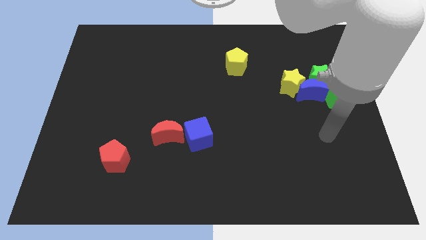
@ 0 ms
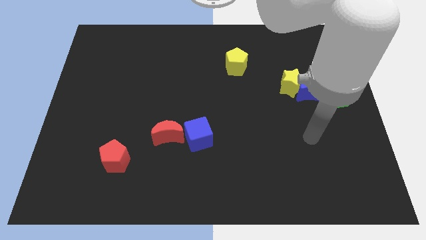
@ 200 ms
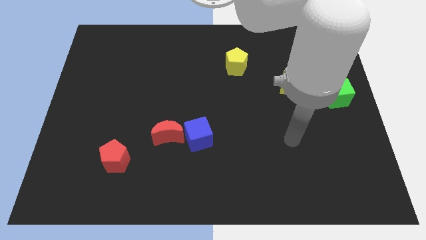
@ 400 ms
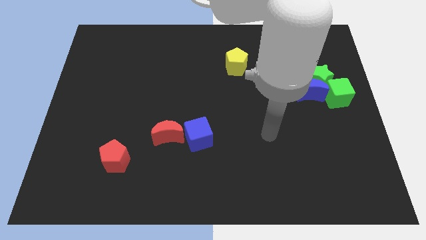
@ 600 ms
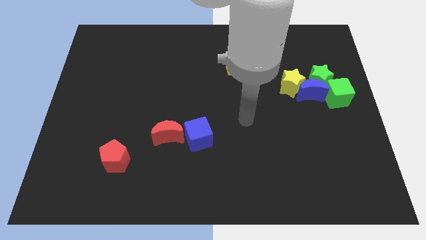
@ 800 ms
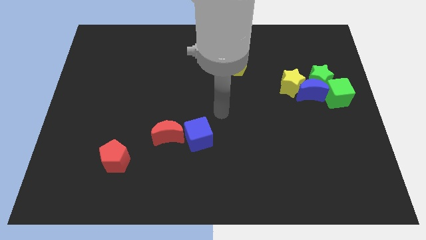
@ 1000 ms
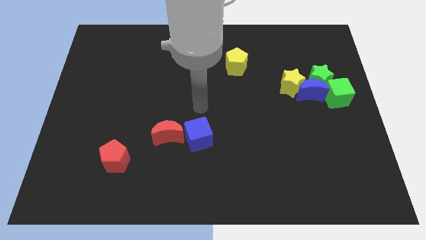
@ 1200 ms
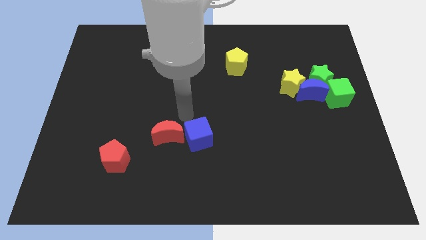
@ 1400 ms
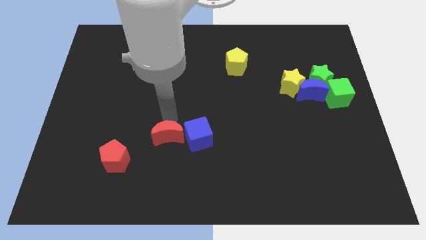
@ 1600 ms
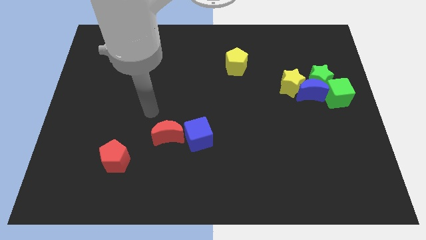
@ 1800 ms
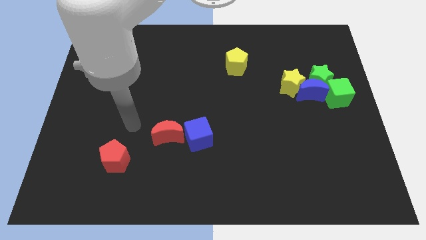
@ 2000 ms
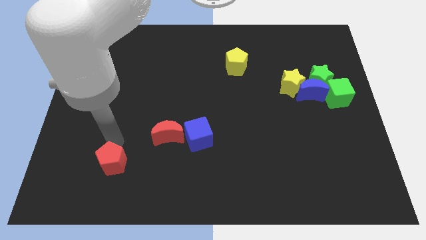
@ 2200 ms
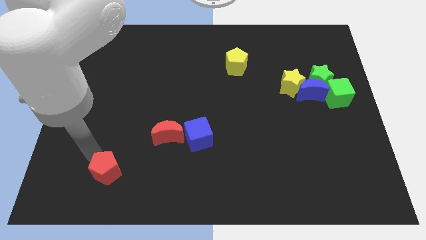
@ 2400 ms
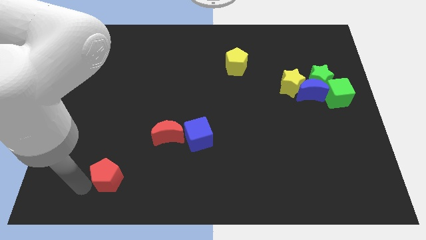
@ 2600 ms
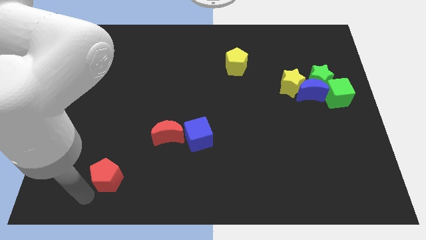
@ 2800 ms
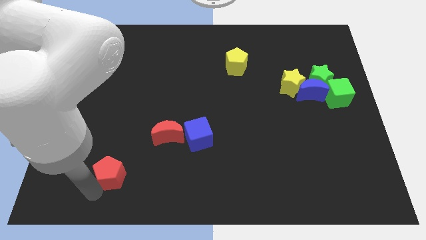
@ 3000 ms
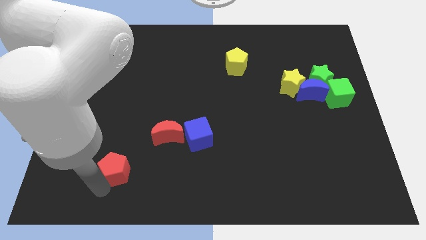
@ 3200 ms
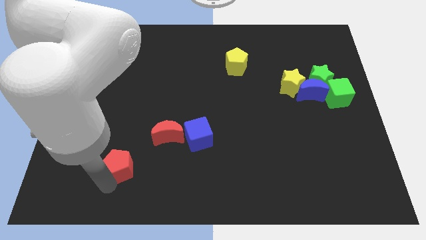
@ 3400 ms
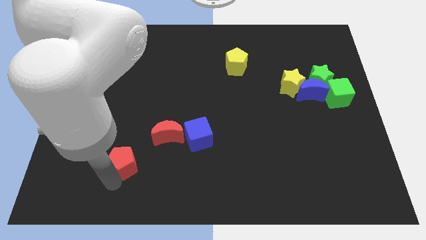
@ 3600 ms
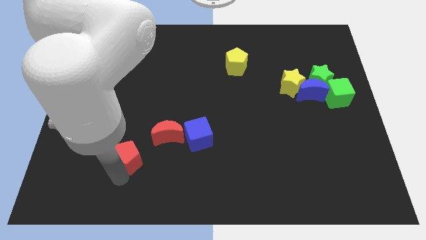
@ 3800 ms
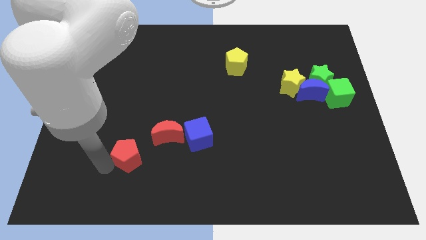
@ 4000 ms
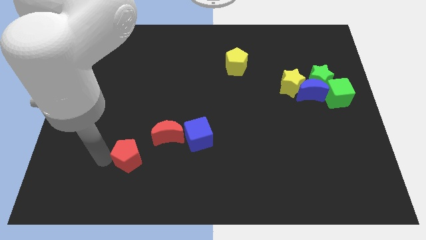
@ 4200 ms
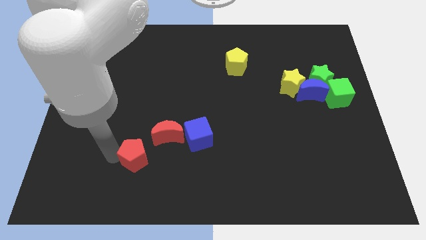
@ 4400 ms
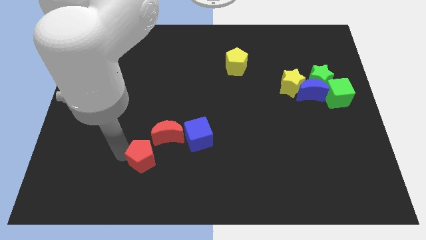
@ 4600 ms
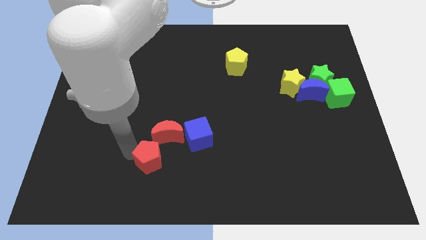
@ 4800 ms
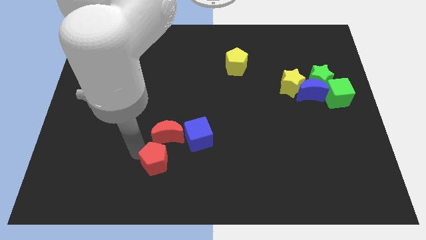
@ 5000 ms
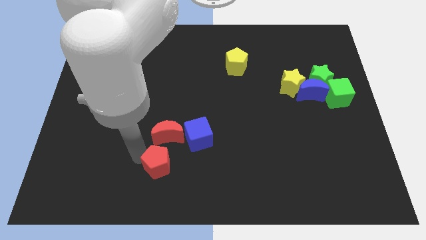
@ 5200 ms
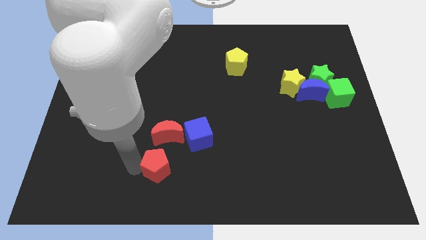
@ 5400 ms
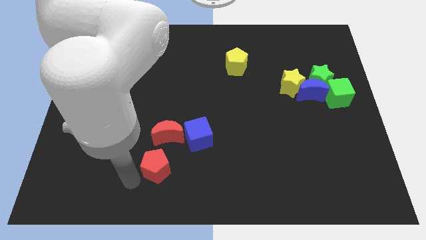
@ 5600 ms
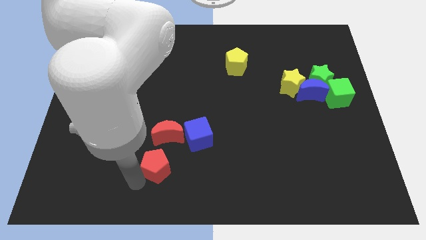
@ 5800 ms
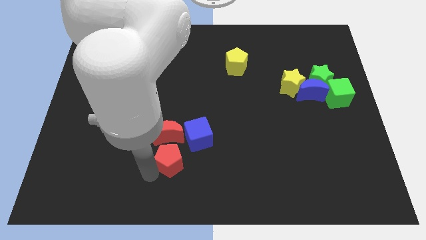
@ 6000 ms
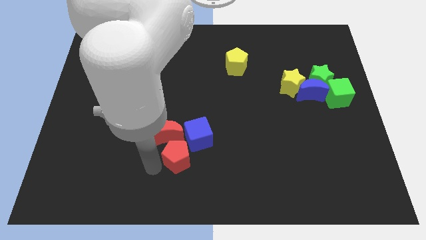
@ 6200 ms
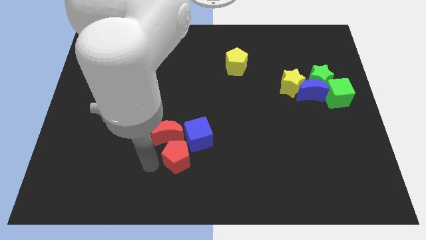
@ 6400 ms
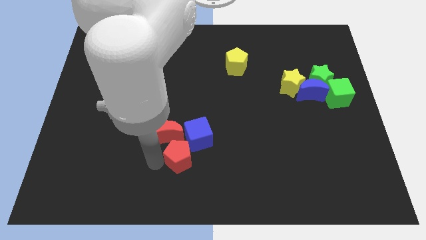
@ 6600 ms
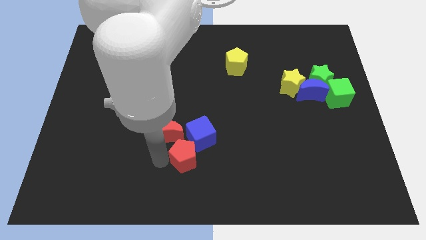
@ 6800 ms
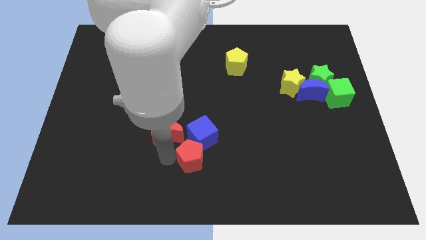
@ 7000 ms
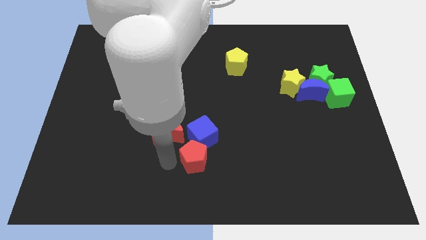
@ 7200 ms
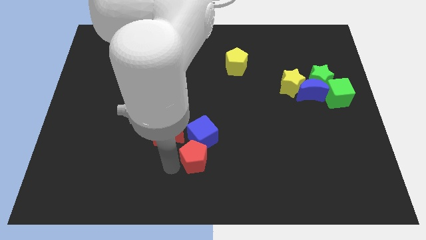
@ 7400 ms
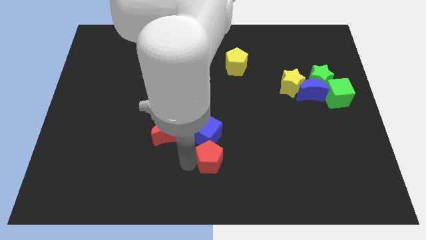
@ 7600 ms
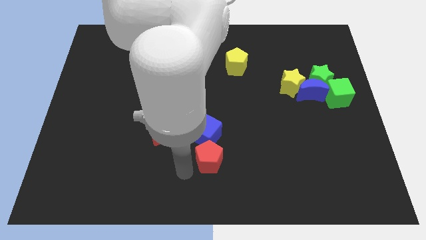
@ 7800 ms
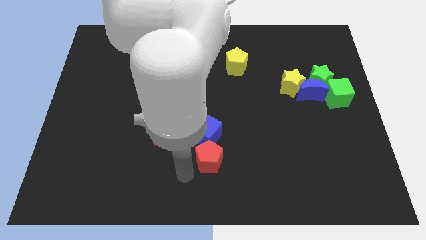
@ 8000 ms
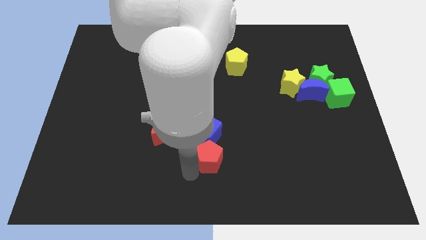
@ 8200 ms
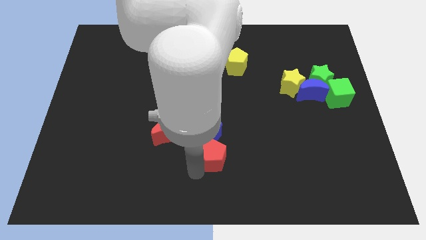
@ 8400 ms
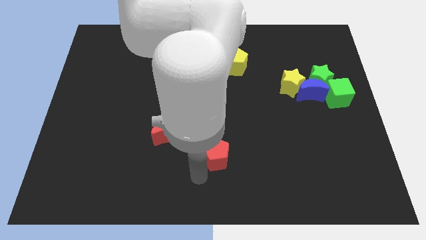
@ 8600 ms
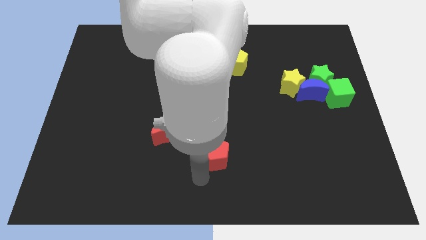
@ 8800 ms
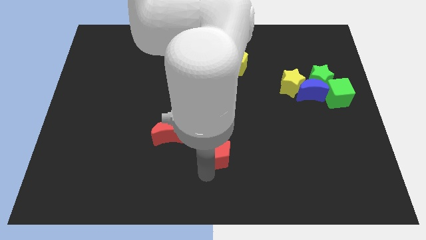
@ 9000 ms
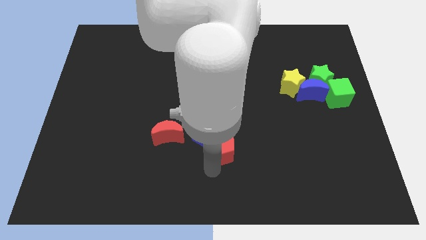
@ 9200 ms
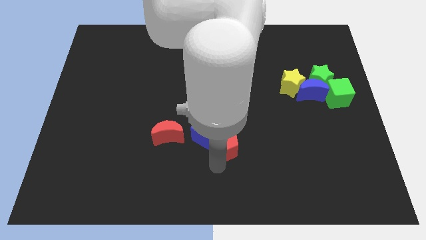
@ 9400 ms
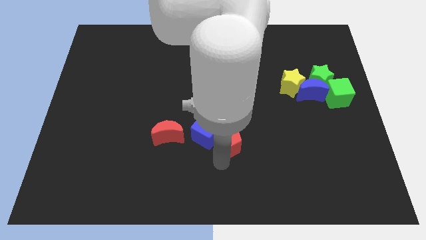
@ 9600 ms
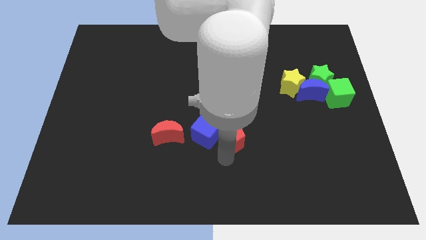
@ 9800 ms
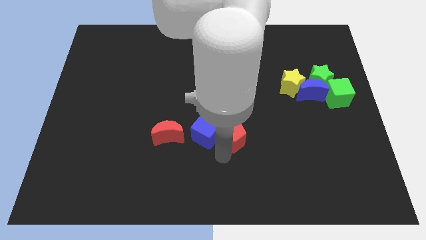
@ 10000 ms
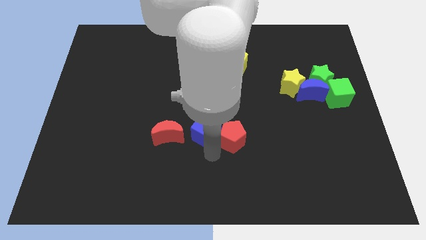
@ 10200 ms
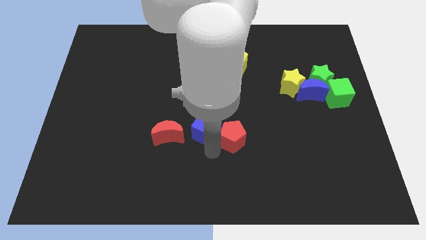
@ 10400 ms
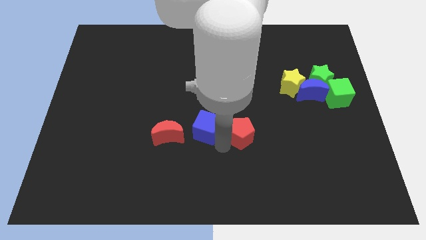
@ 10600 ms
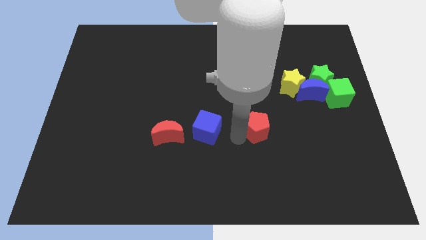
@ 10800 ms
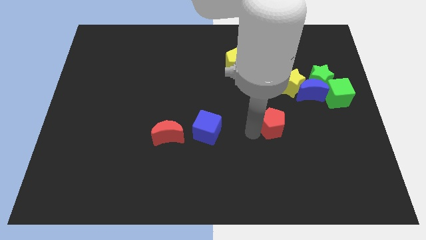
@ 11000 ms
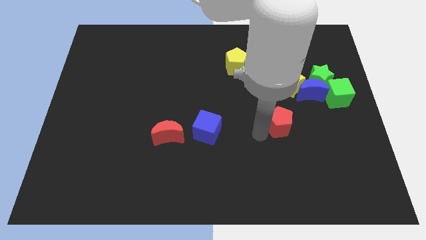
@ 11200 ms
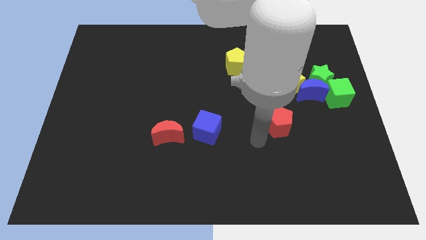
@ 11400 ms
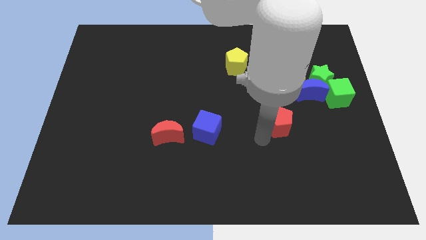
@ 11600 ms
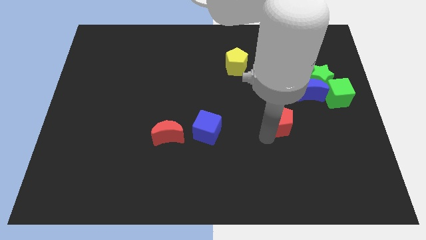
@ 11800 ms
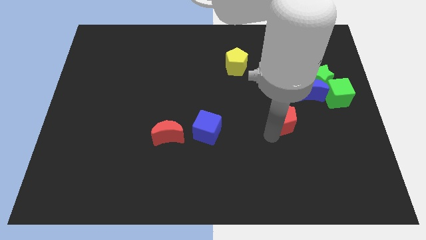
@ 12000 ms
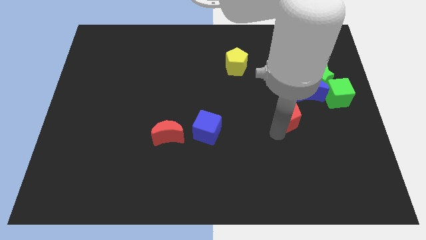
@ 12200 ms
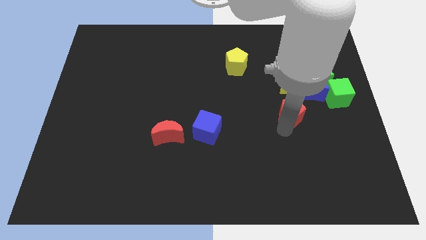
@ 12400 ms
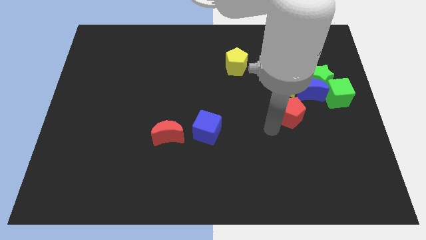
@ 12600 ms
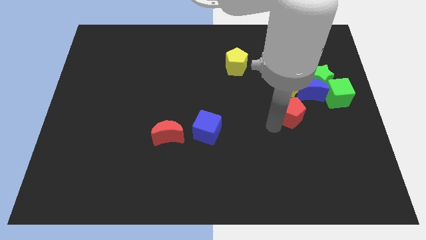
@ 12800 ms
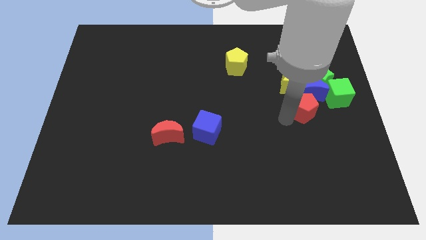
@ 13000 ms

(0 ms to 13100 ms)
put the red pentagon diagonally down and to the right of the yellow star

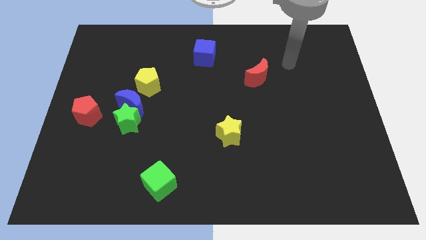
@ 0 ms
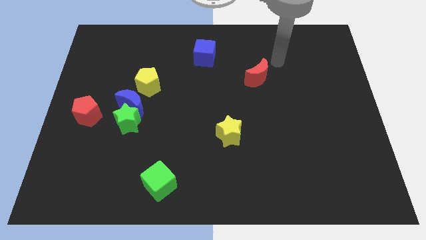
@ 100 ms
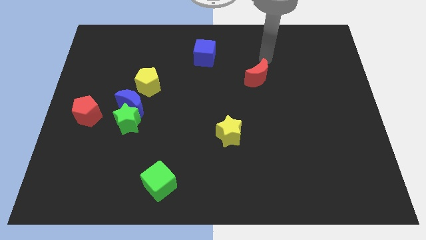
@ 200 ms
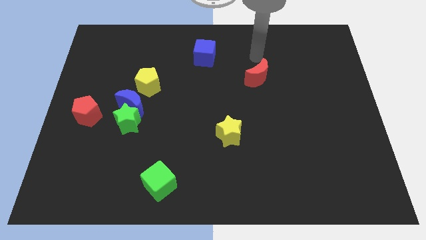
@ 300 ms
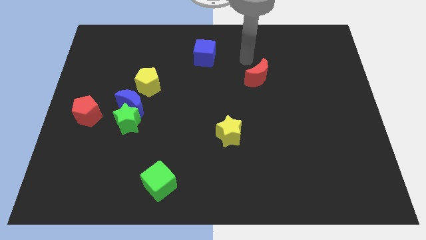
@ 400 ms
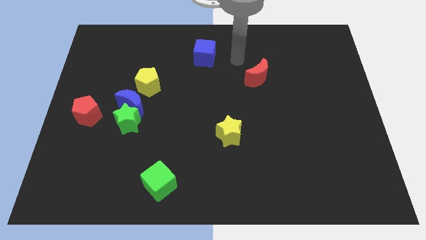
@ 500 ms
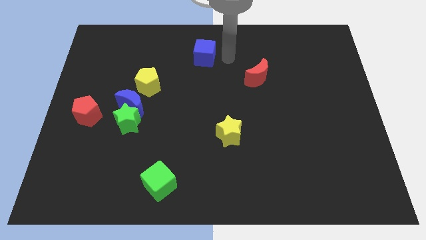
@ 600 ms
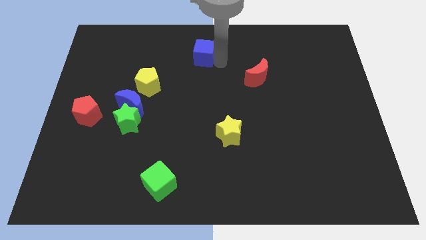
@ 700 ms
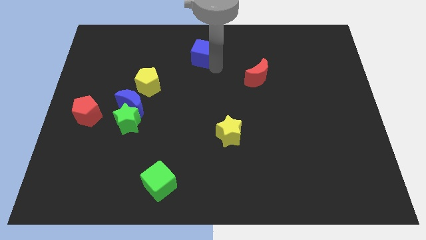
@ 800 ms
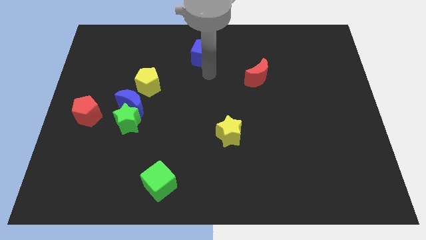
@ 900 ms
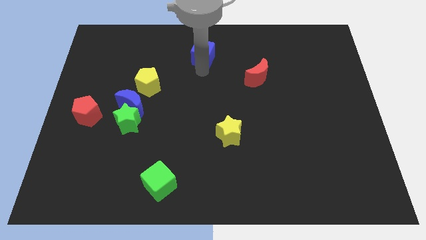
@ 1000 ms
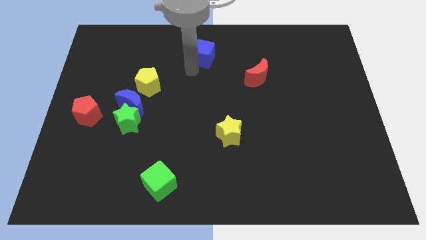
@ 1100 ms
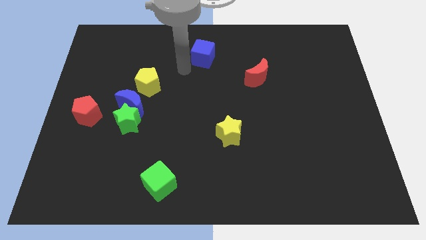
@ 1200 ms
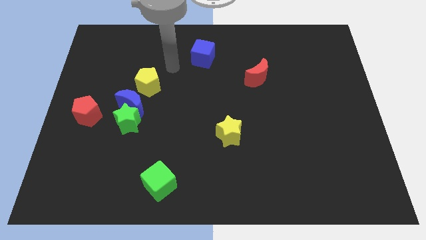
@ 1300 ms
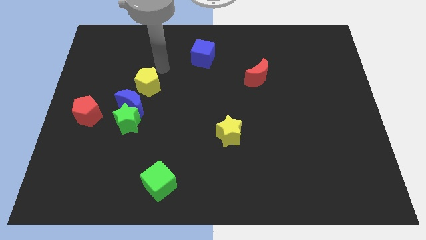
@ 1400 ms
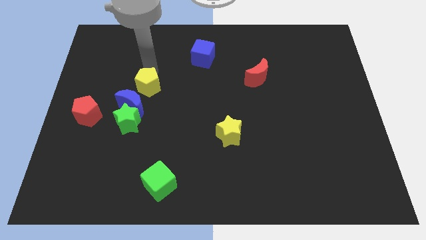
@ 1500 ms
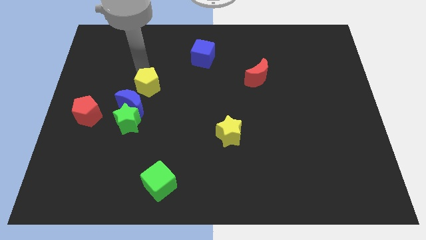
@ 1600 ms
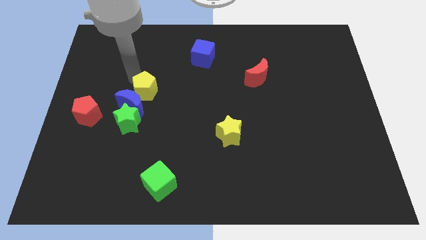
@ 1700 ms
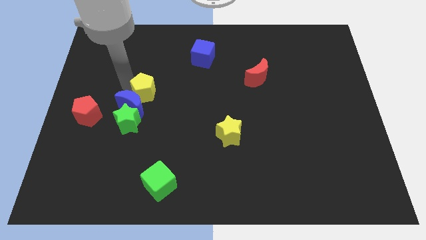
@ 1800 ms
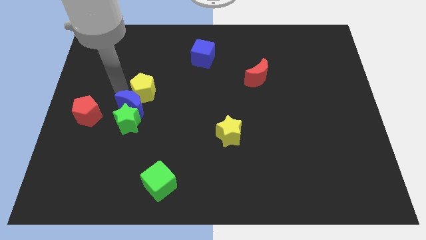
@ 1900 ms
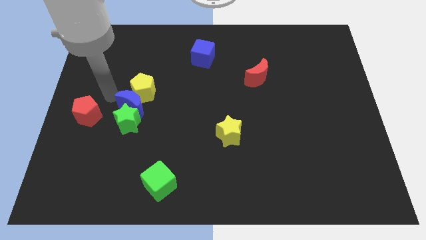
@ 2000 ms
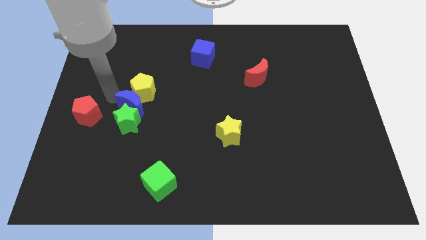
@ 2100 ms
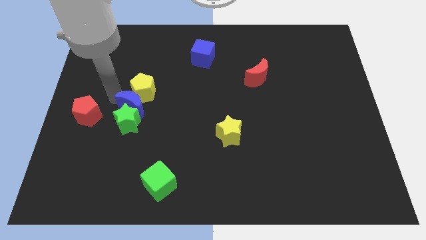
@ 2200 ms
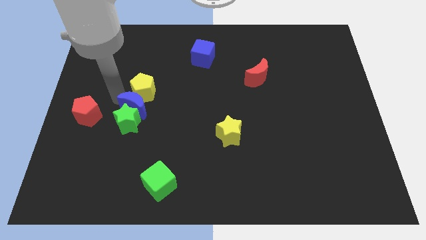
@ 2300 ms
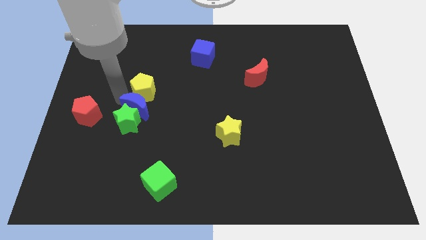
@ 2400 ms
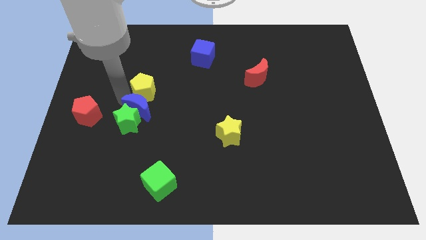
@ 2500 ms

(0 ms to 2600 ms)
push the blue moon to the right of the green star
